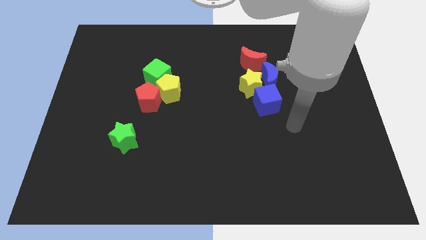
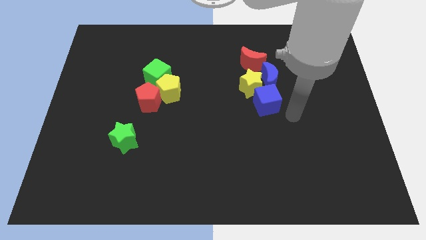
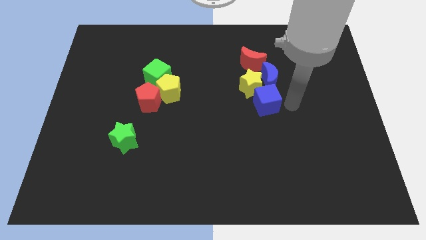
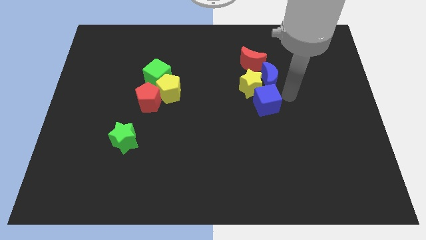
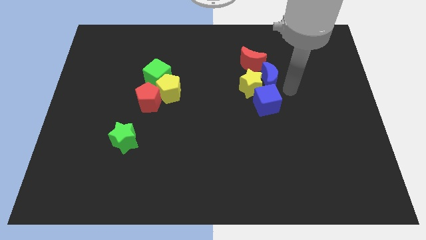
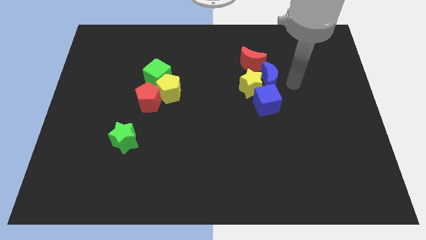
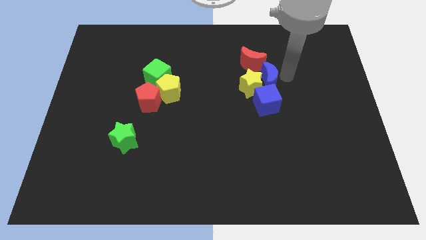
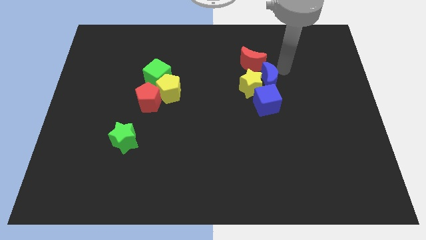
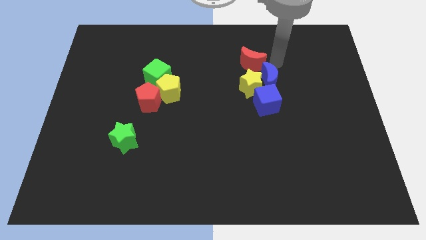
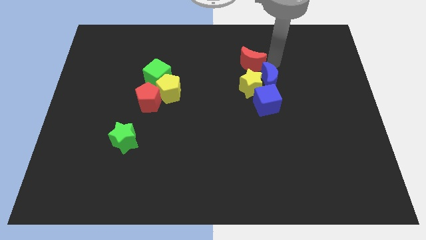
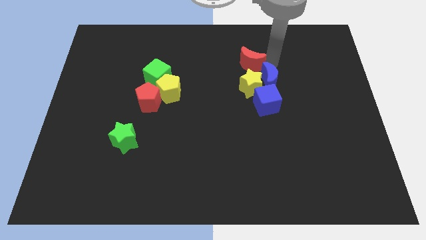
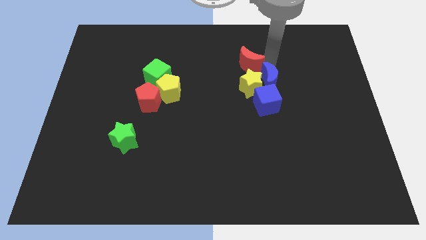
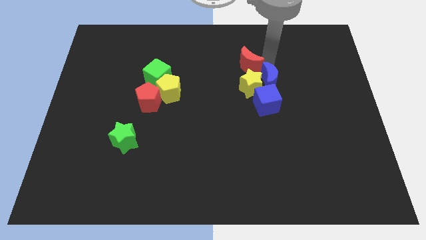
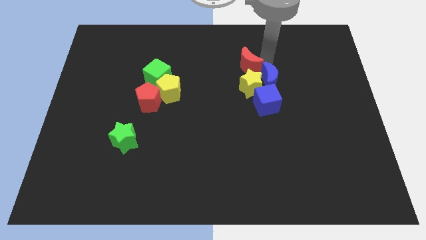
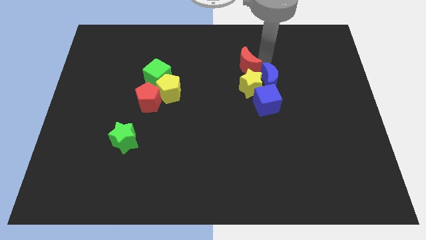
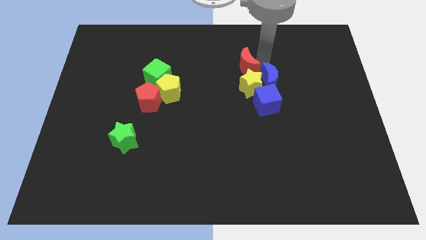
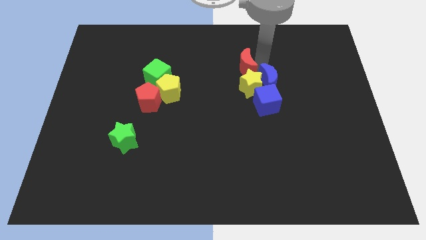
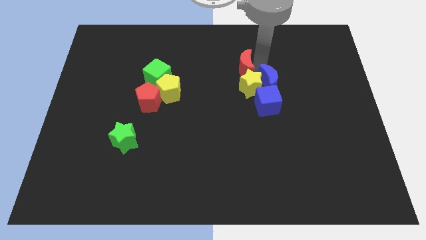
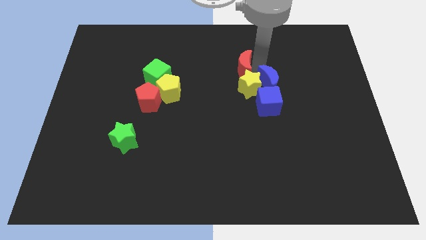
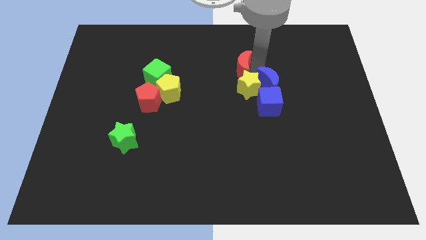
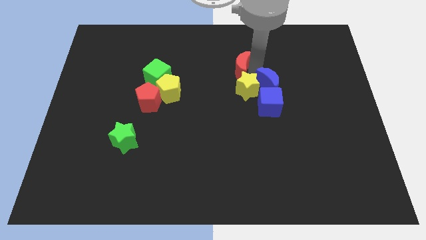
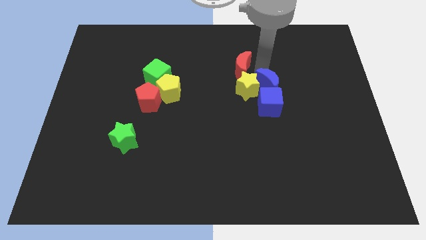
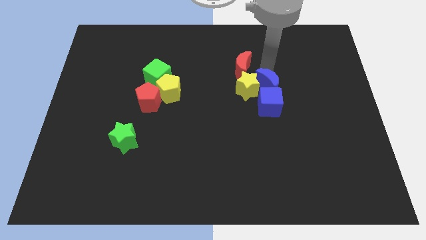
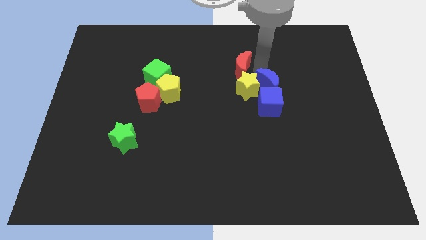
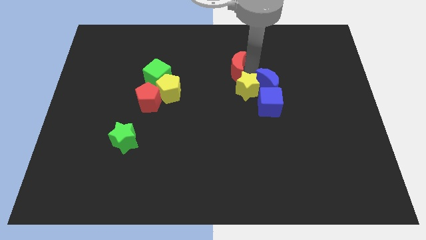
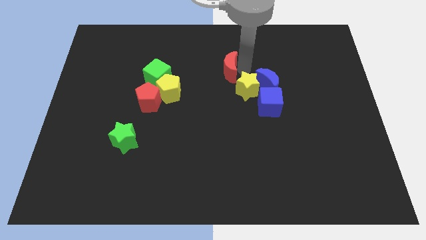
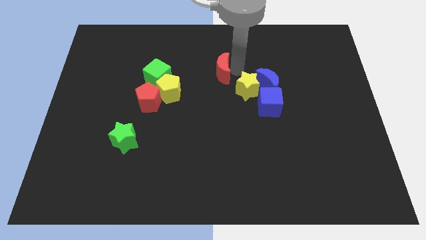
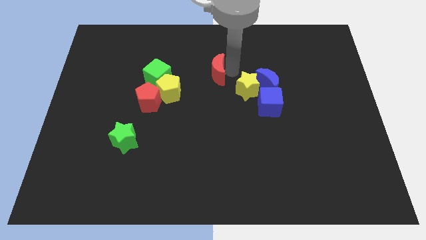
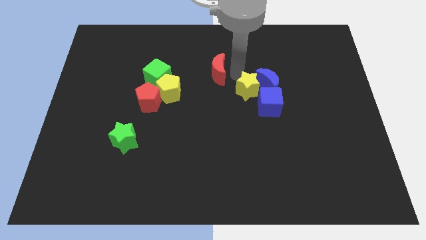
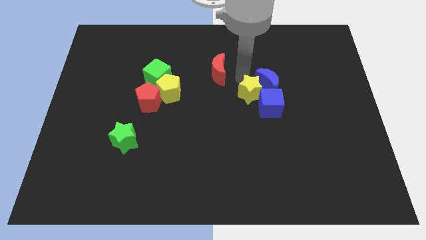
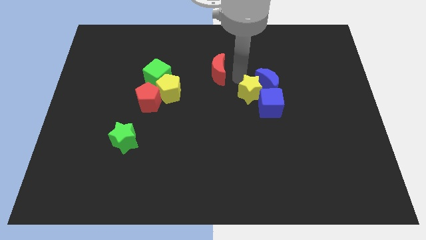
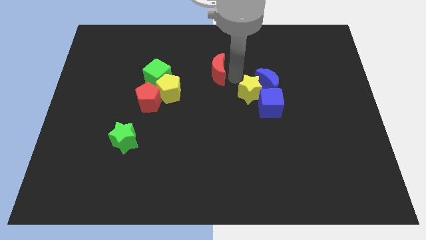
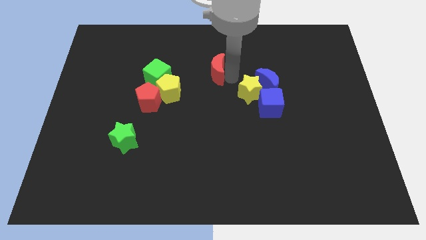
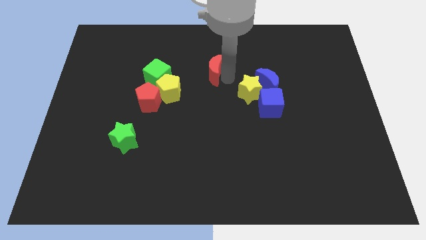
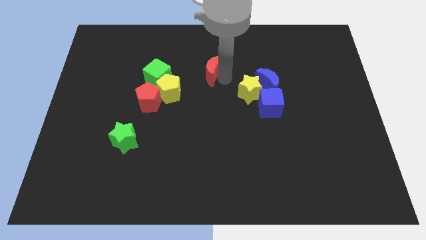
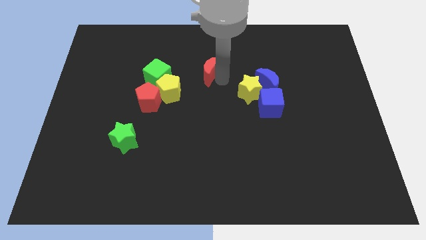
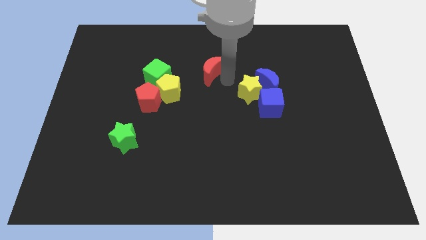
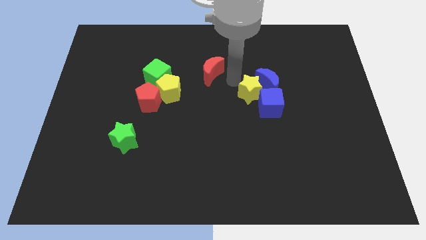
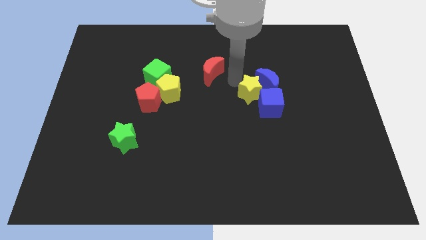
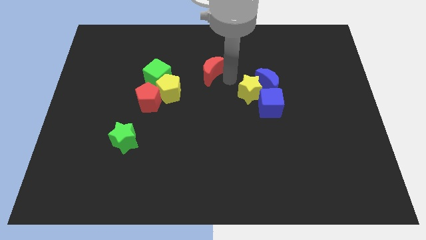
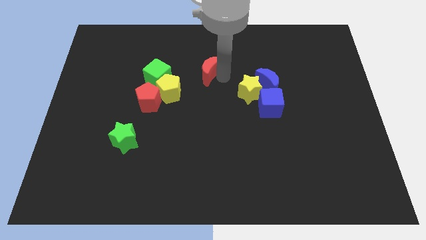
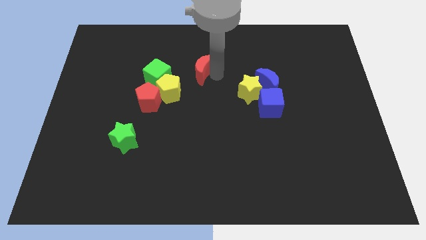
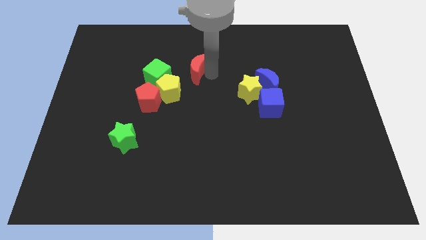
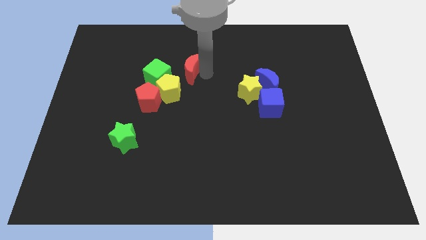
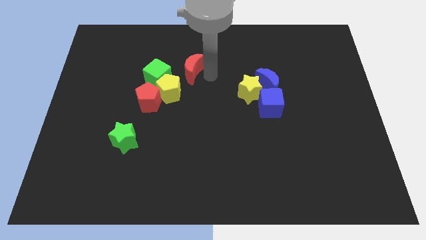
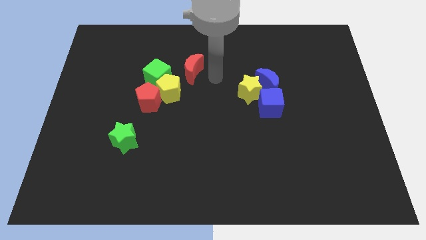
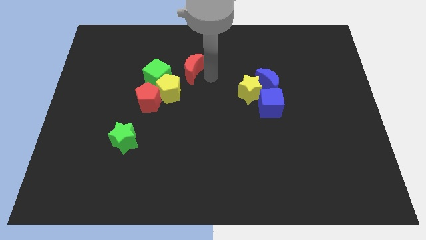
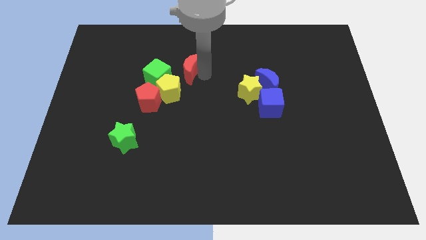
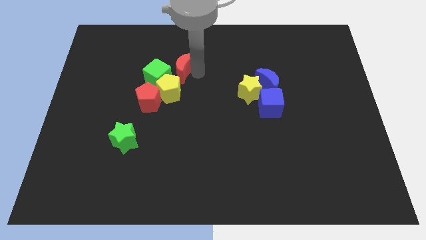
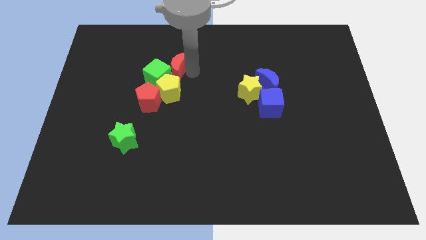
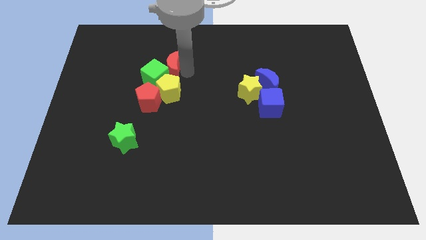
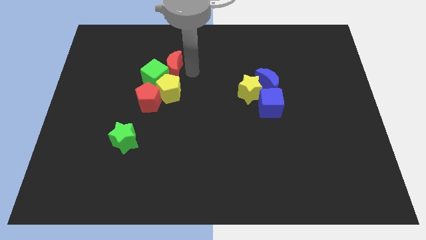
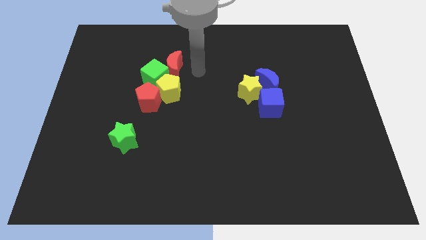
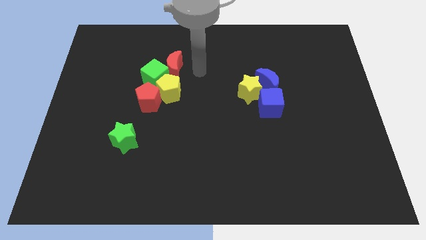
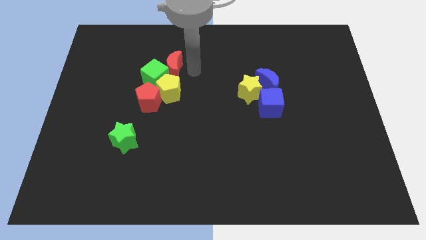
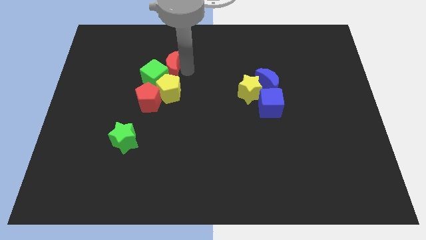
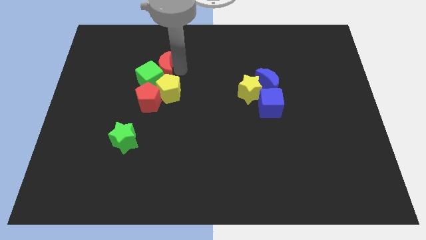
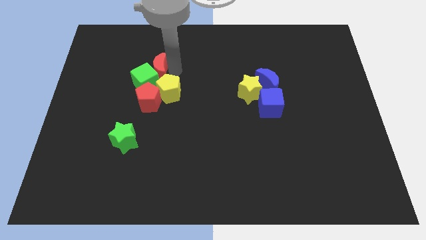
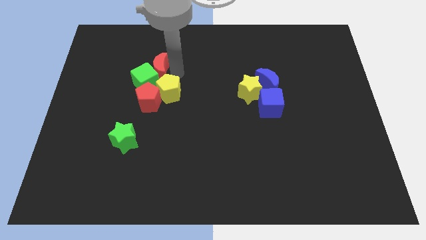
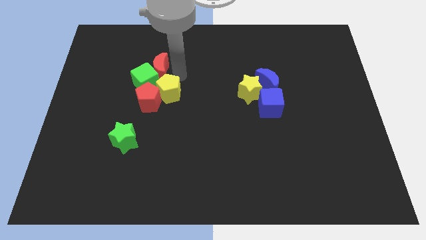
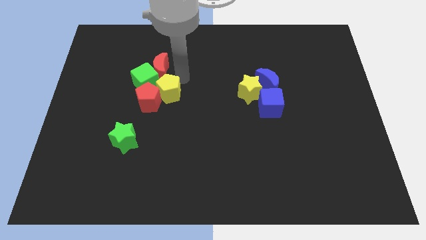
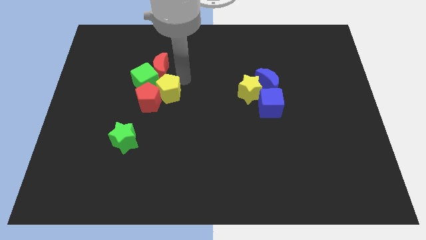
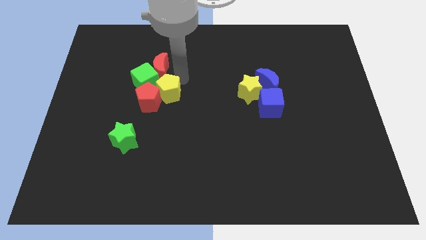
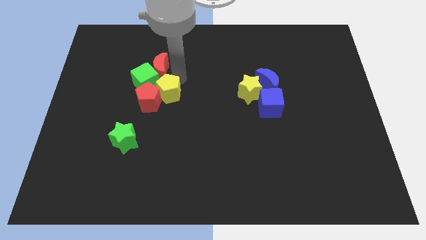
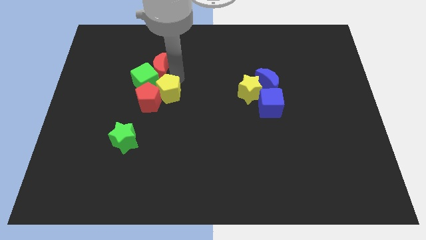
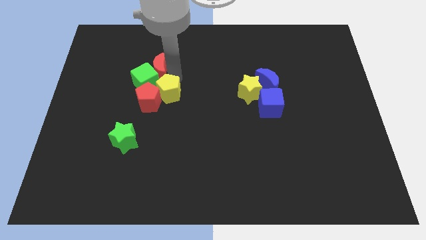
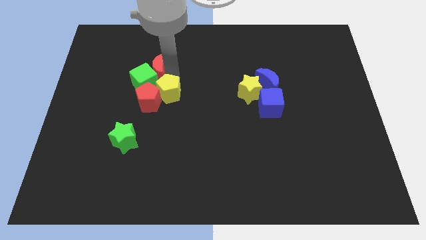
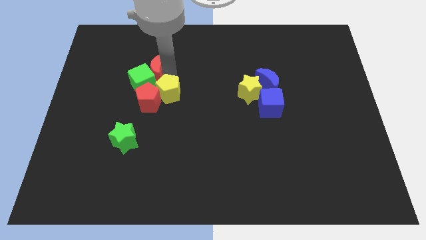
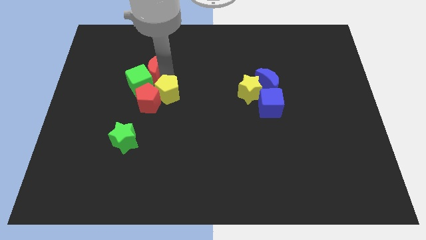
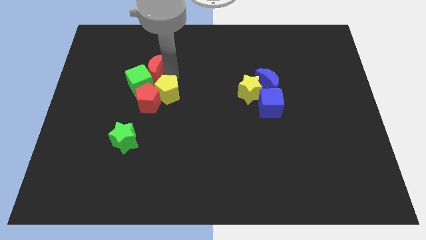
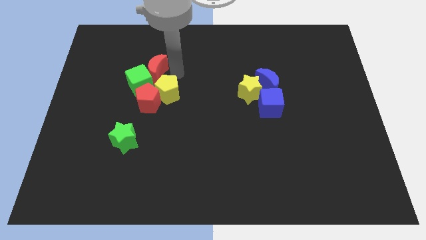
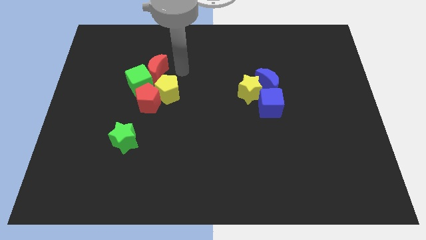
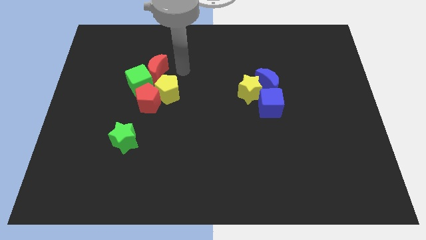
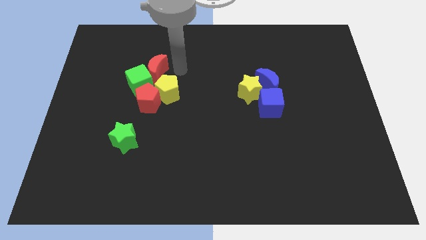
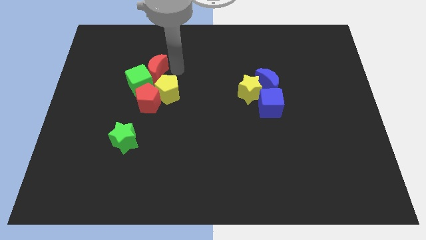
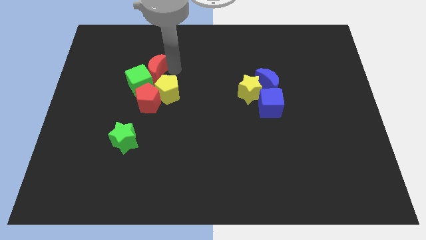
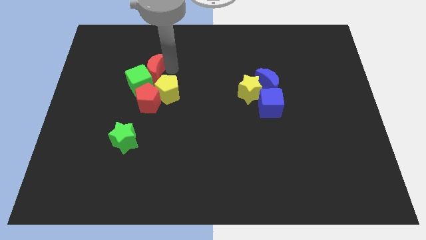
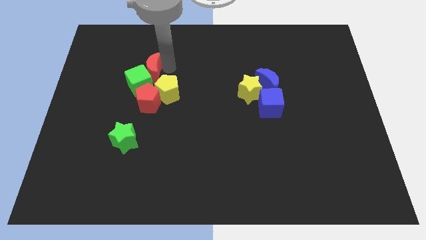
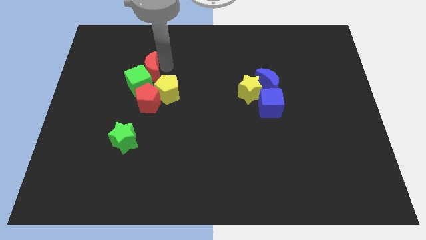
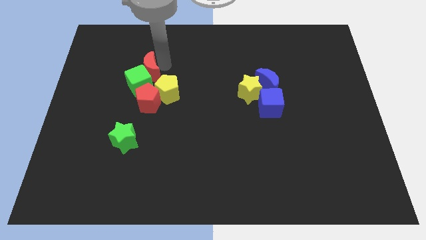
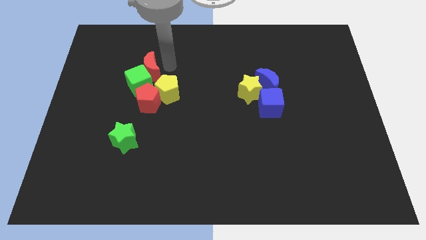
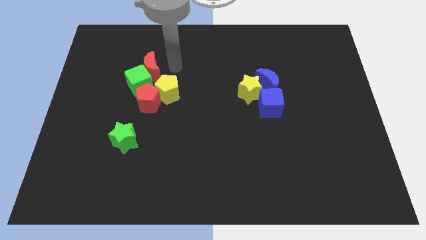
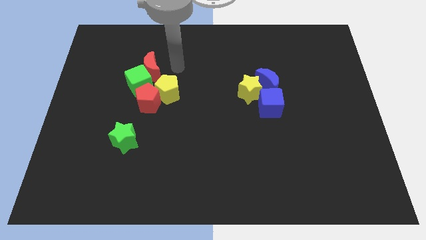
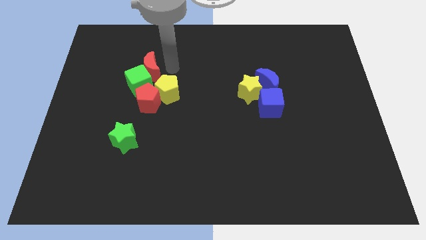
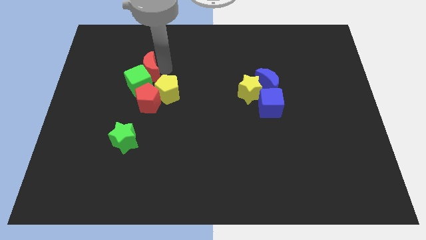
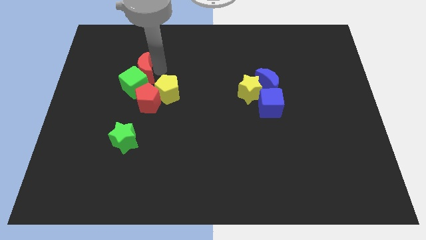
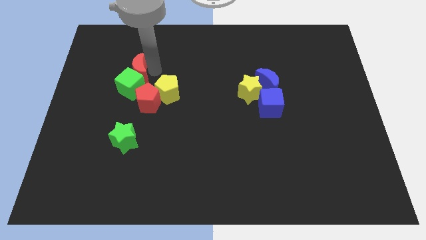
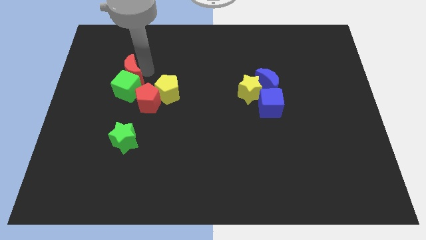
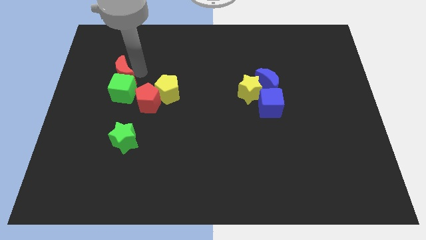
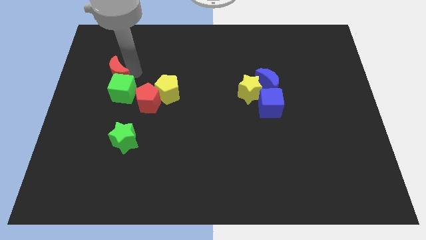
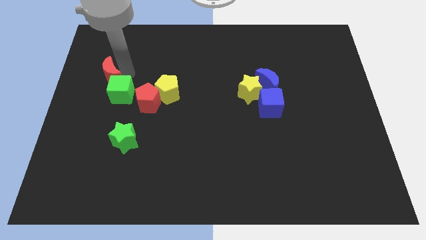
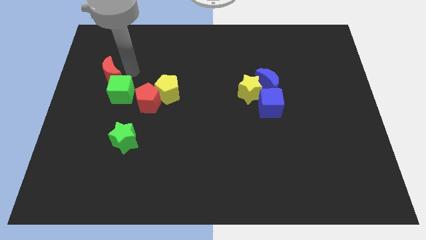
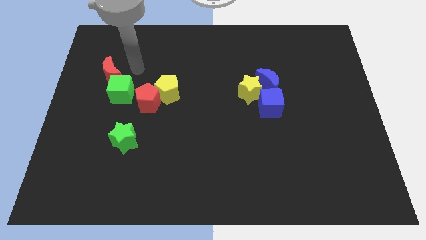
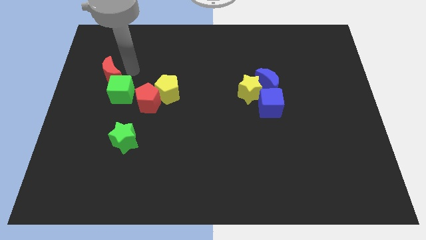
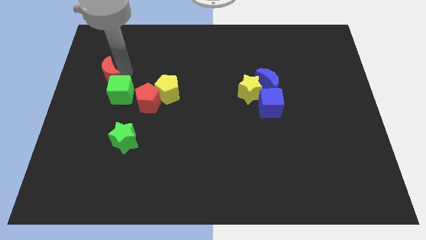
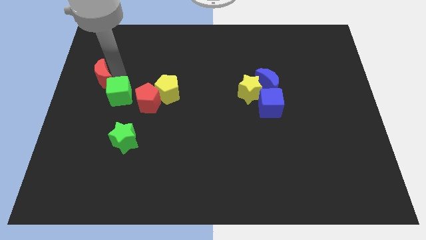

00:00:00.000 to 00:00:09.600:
put the red moon to the left side of the board
